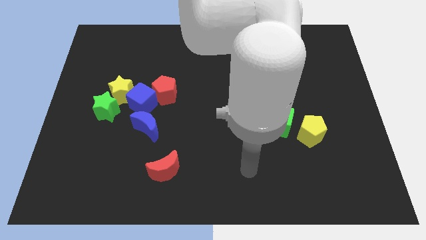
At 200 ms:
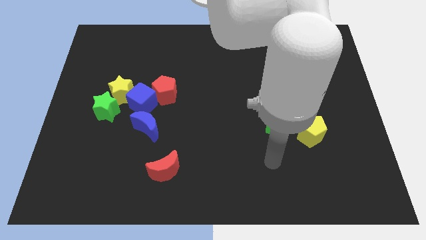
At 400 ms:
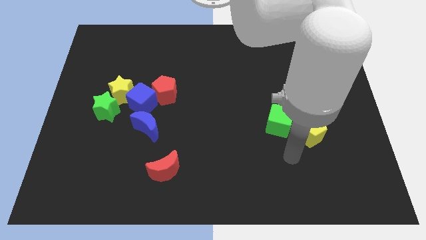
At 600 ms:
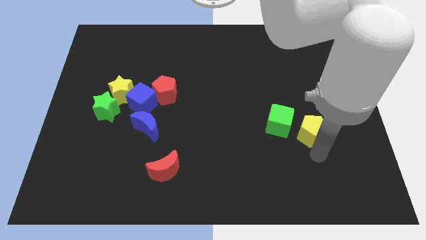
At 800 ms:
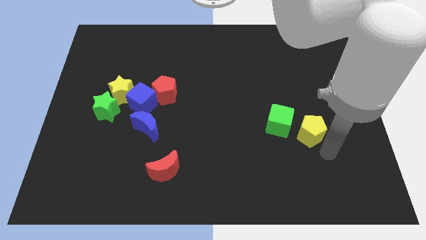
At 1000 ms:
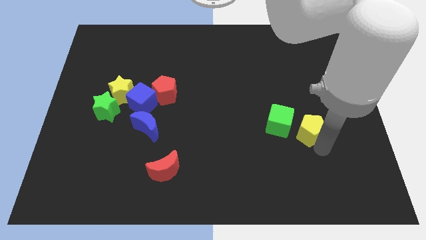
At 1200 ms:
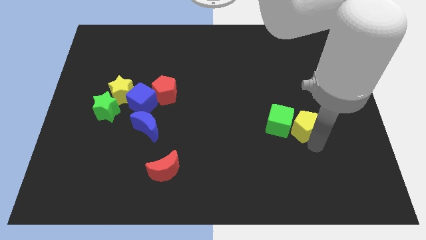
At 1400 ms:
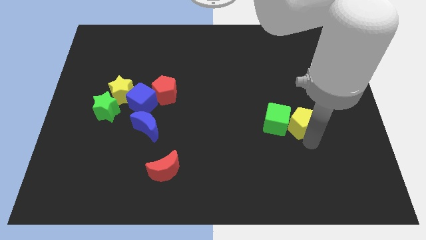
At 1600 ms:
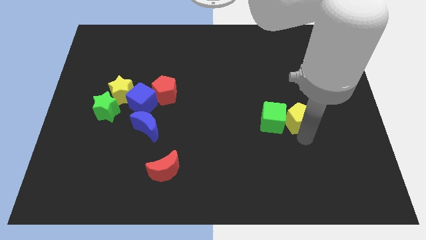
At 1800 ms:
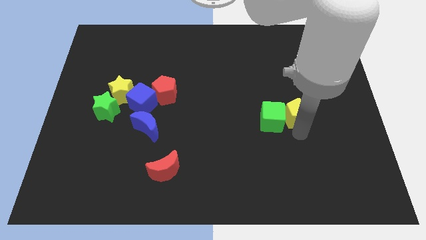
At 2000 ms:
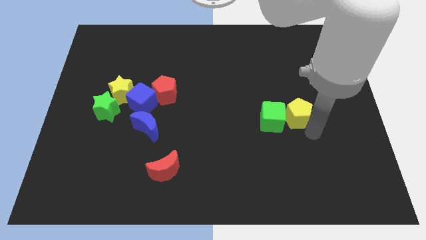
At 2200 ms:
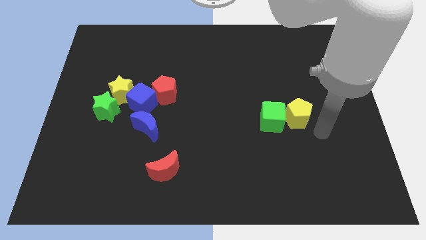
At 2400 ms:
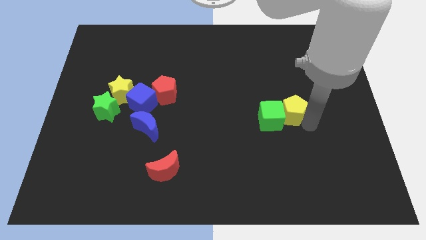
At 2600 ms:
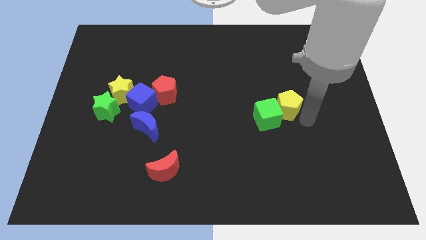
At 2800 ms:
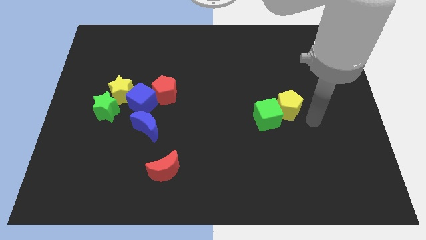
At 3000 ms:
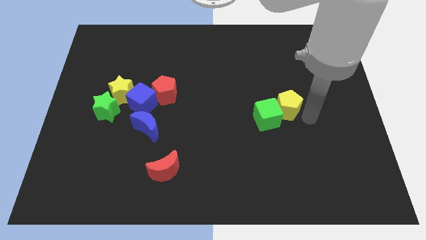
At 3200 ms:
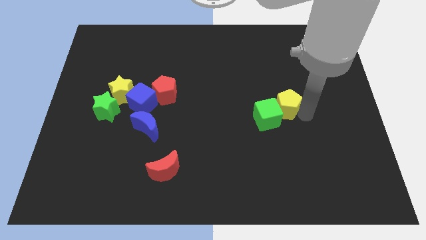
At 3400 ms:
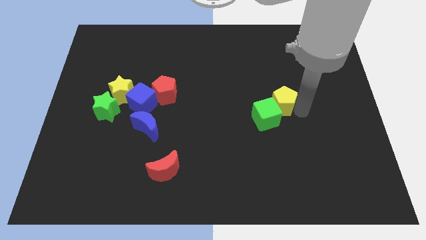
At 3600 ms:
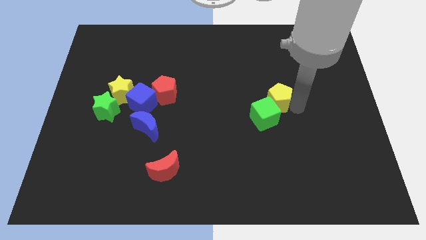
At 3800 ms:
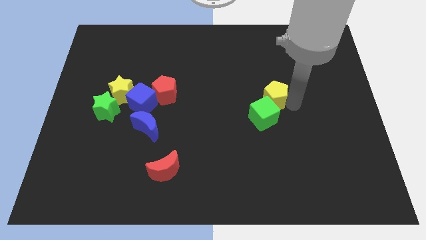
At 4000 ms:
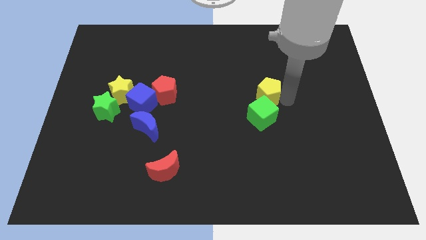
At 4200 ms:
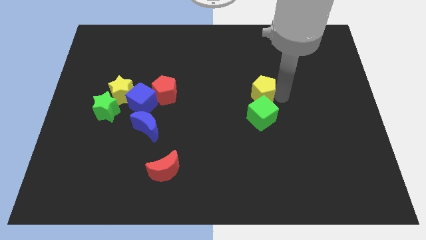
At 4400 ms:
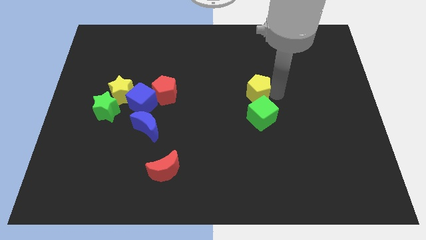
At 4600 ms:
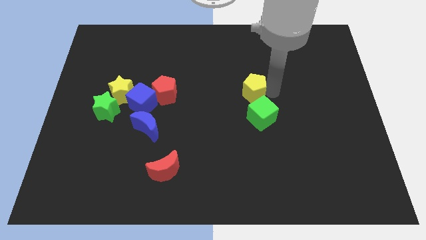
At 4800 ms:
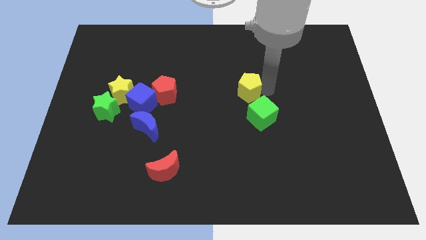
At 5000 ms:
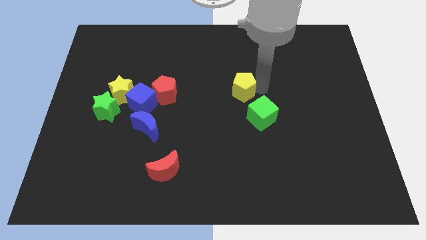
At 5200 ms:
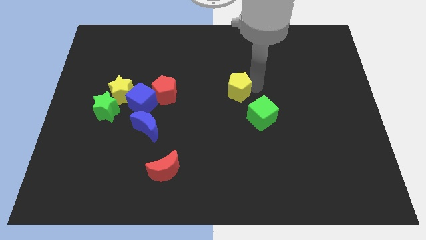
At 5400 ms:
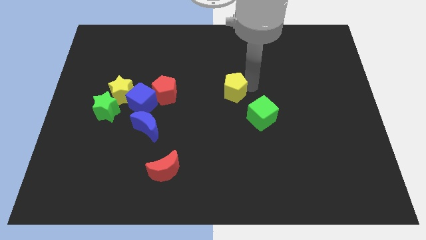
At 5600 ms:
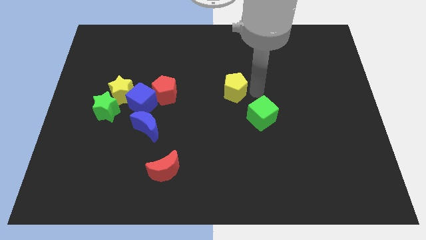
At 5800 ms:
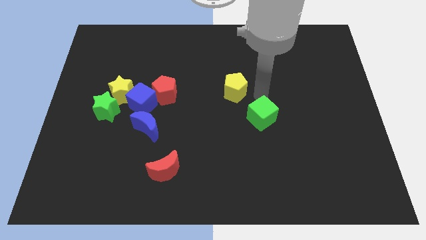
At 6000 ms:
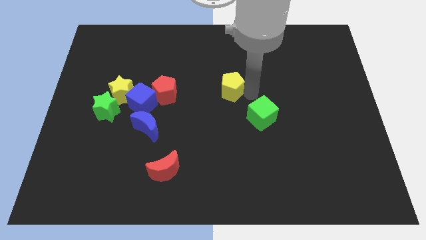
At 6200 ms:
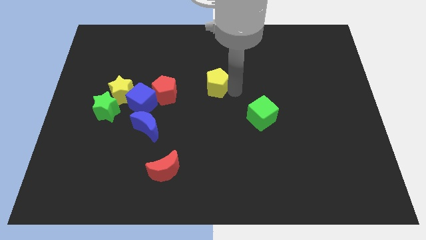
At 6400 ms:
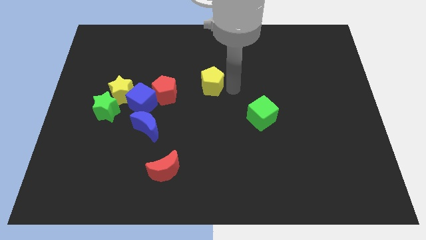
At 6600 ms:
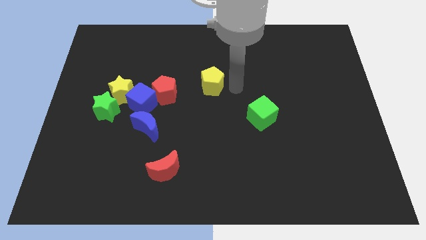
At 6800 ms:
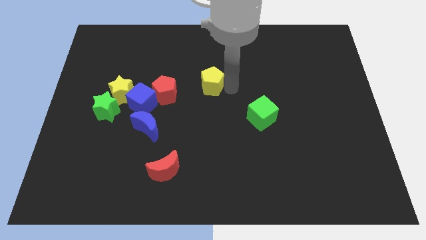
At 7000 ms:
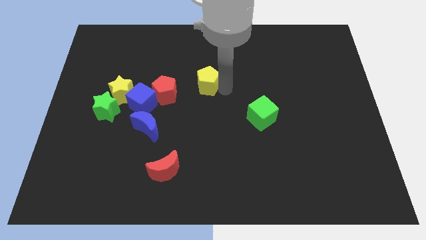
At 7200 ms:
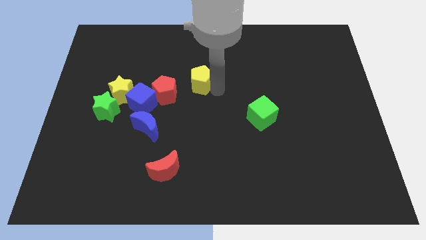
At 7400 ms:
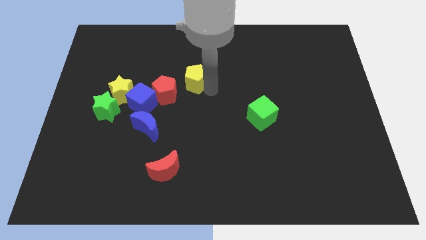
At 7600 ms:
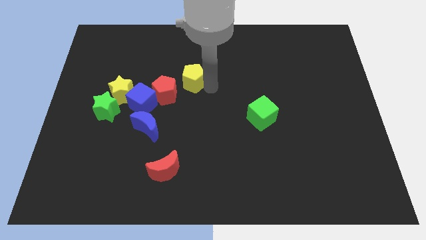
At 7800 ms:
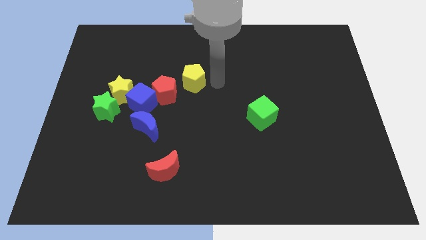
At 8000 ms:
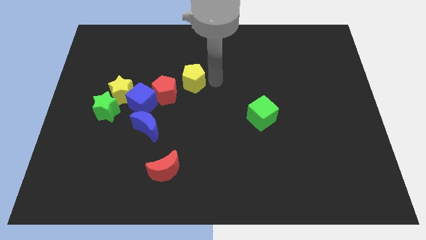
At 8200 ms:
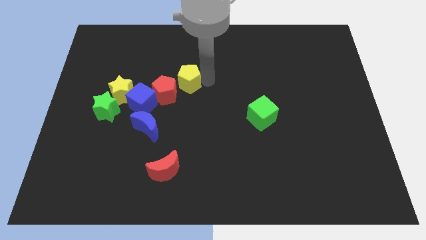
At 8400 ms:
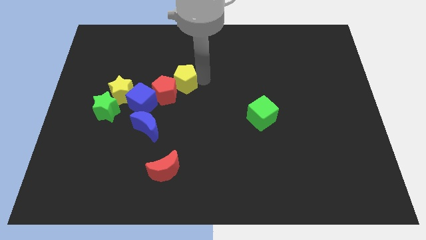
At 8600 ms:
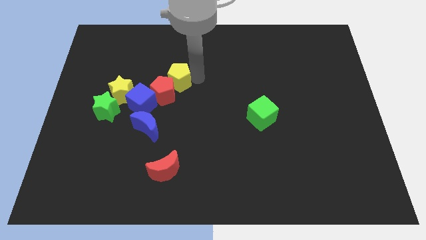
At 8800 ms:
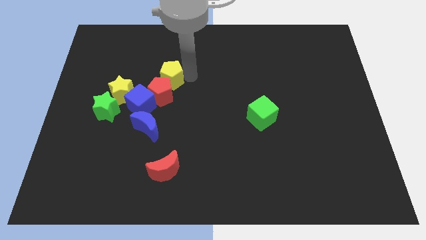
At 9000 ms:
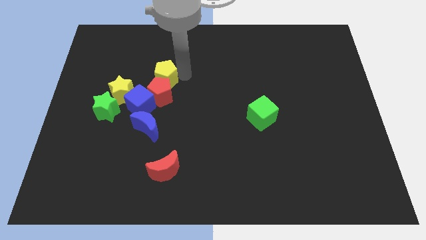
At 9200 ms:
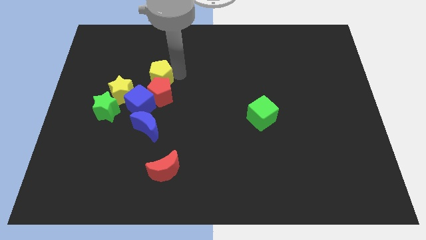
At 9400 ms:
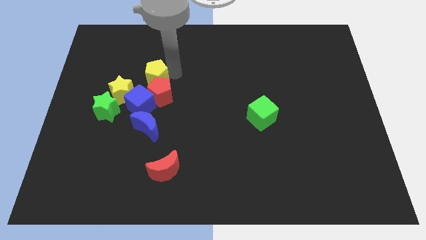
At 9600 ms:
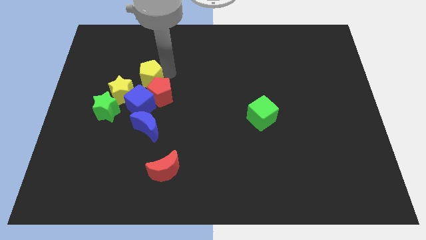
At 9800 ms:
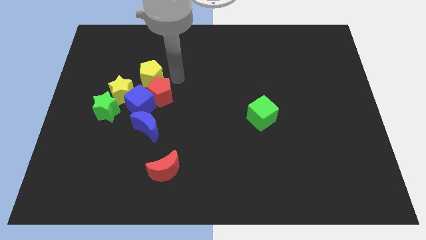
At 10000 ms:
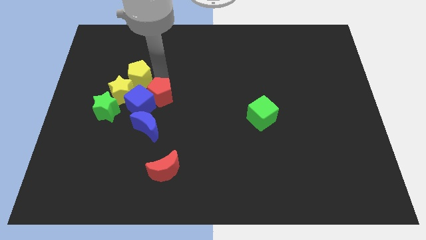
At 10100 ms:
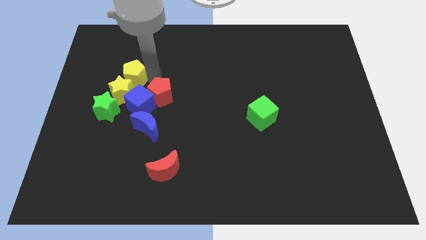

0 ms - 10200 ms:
put the yellow pentagon to the top of the green star

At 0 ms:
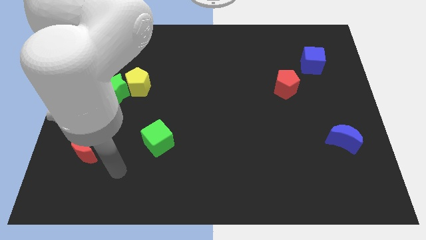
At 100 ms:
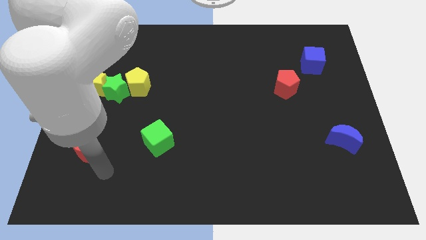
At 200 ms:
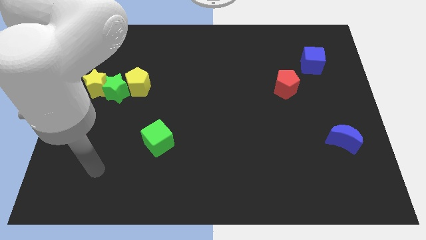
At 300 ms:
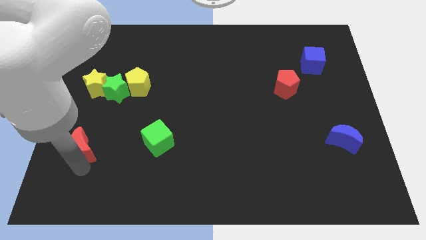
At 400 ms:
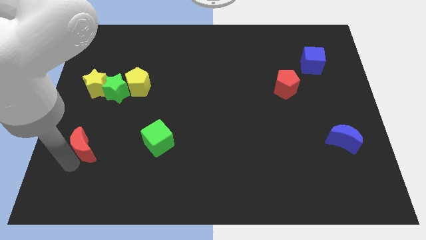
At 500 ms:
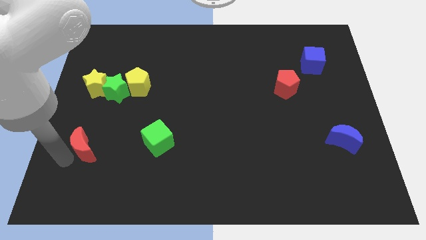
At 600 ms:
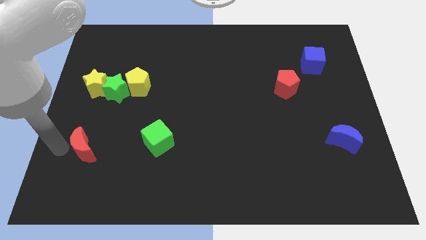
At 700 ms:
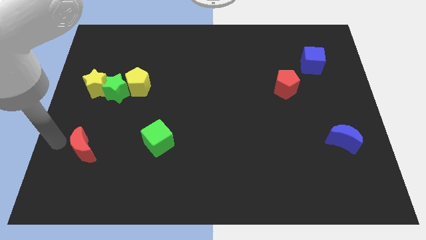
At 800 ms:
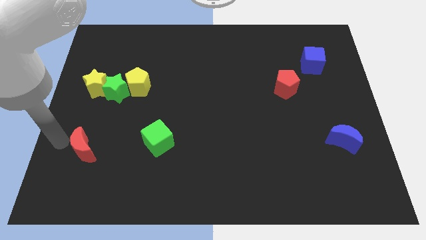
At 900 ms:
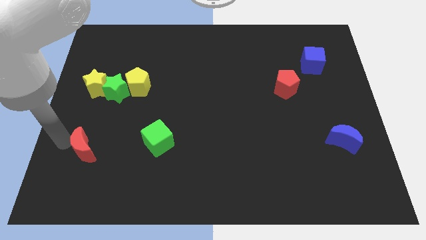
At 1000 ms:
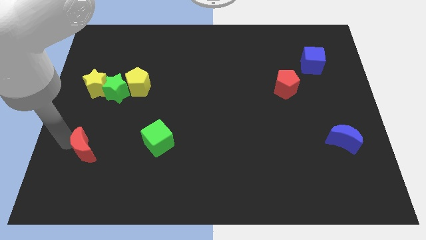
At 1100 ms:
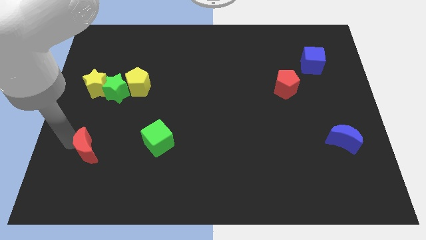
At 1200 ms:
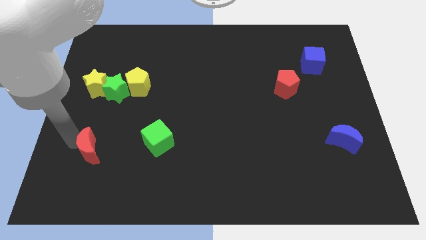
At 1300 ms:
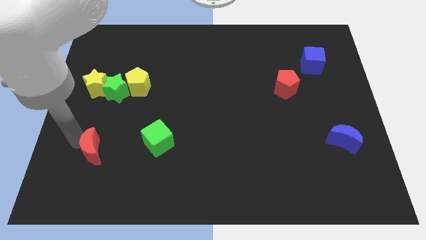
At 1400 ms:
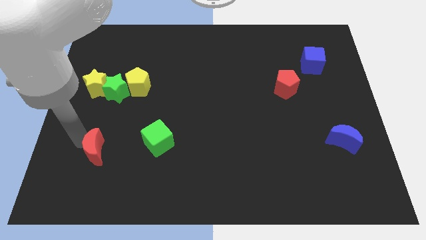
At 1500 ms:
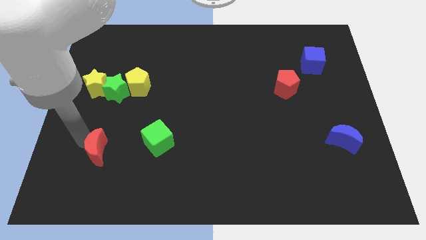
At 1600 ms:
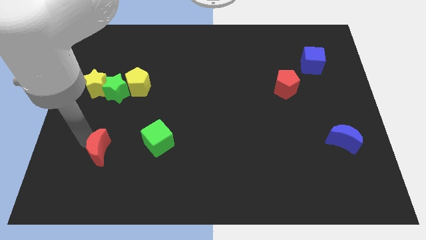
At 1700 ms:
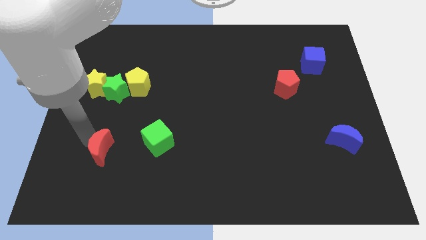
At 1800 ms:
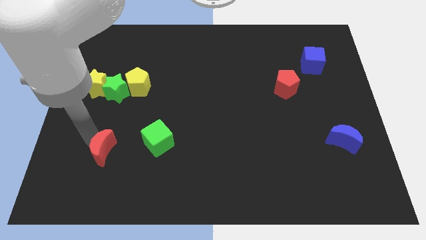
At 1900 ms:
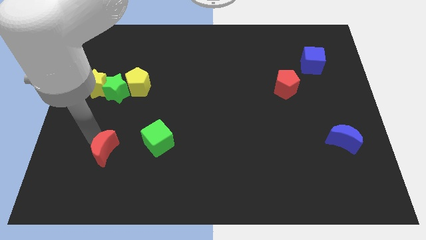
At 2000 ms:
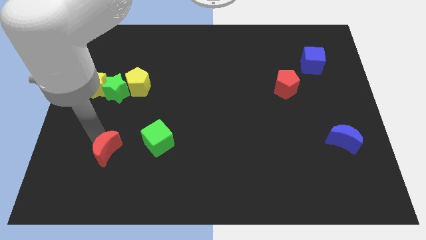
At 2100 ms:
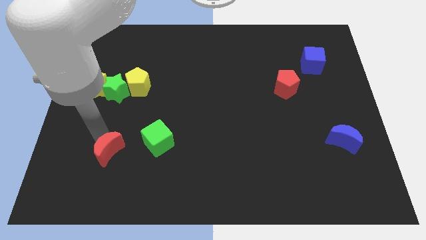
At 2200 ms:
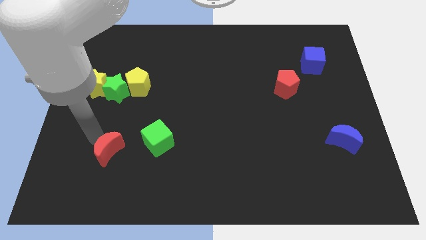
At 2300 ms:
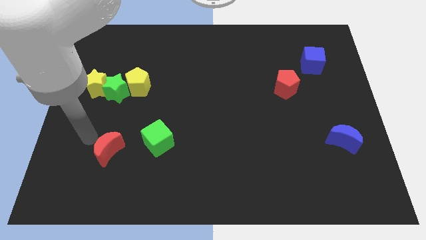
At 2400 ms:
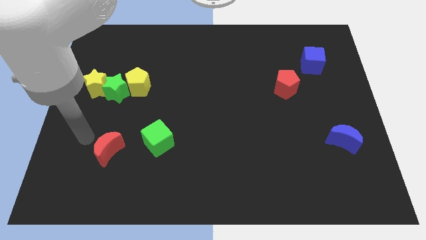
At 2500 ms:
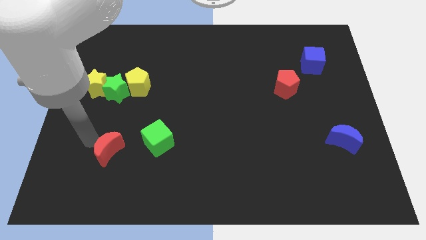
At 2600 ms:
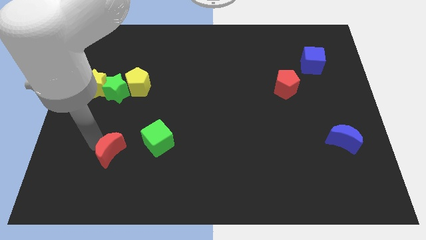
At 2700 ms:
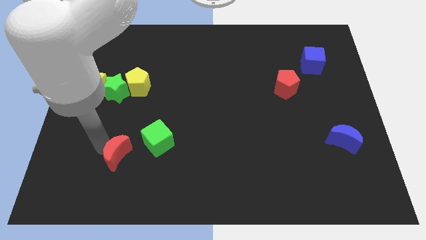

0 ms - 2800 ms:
put the red moon diagonally down and to the left of the green cube
